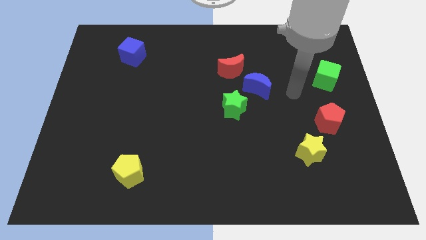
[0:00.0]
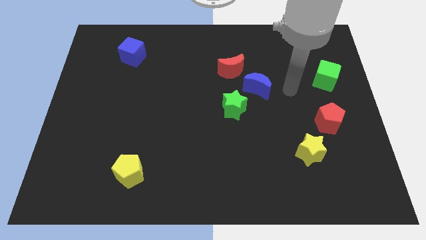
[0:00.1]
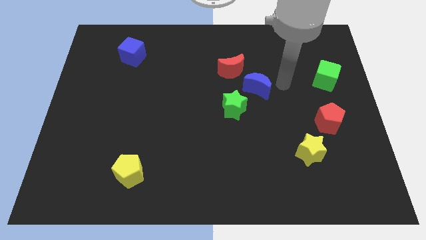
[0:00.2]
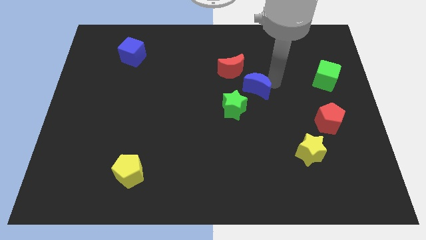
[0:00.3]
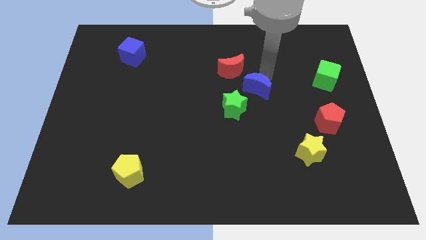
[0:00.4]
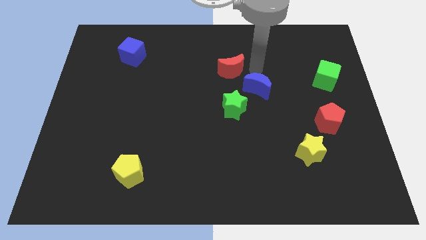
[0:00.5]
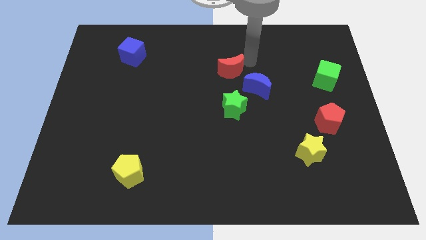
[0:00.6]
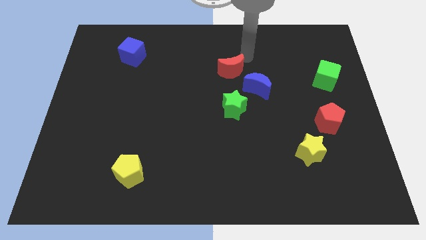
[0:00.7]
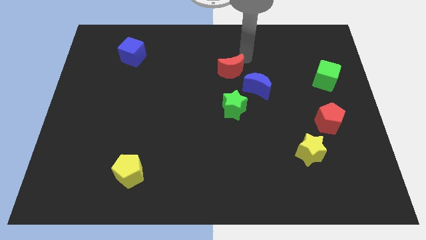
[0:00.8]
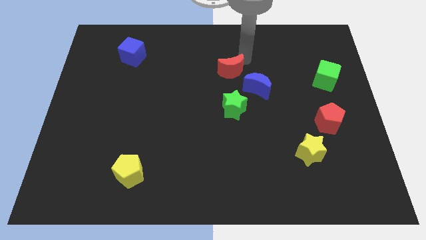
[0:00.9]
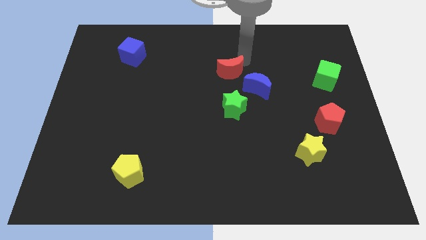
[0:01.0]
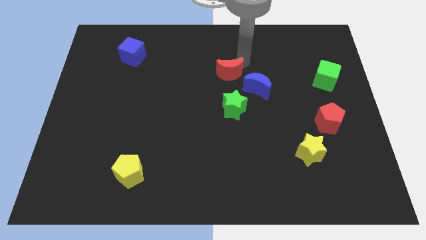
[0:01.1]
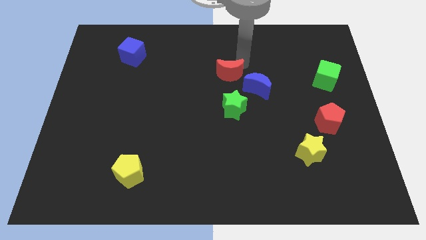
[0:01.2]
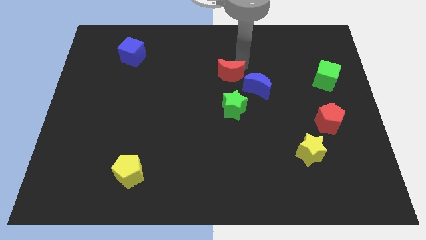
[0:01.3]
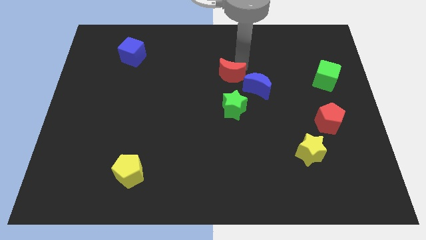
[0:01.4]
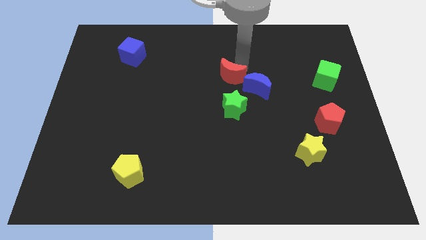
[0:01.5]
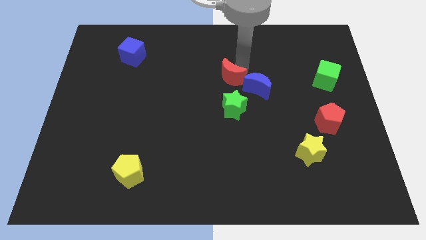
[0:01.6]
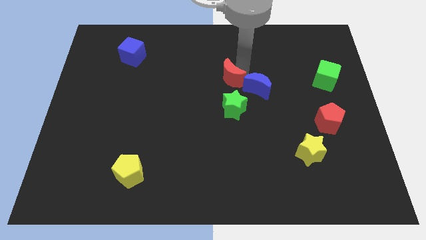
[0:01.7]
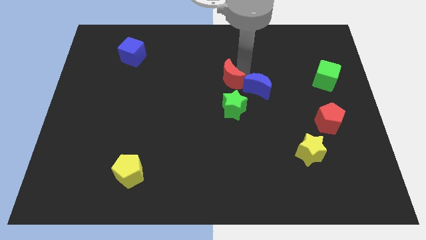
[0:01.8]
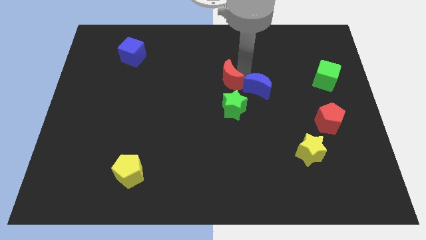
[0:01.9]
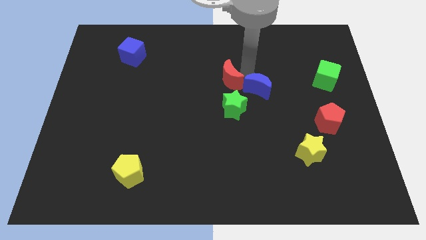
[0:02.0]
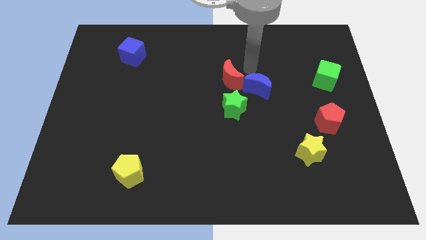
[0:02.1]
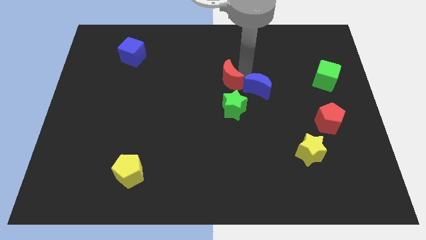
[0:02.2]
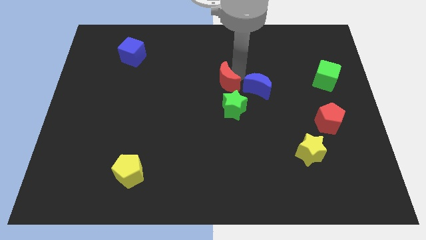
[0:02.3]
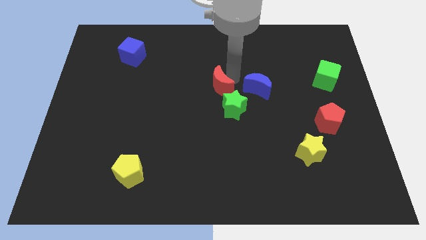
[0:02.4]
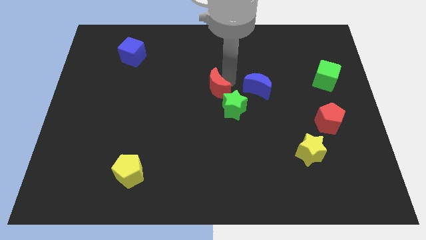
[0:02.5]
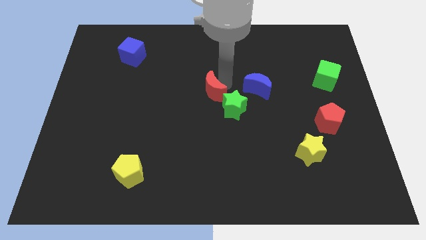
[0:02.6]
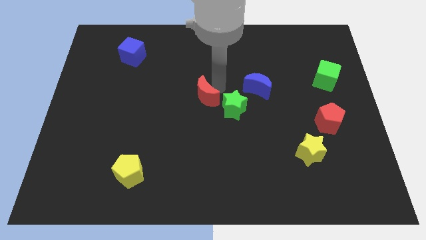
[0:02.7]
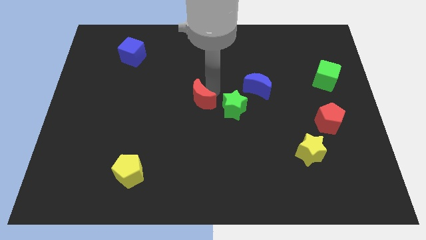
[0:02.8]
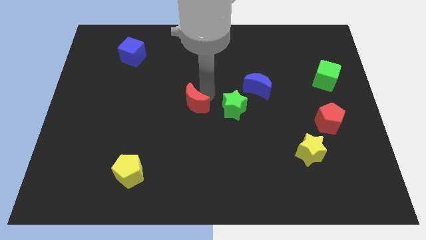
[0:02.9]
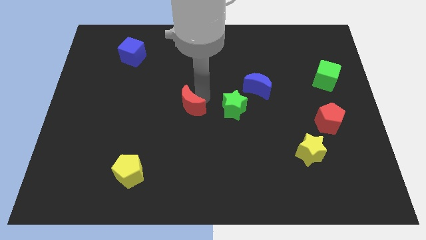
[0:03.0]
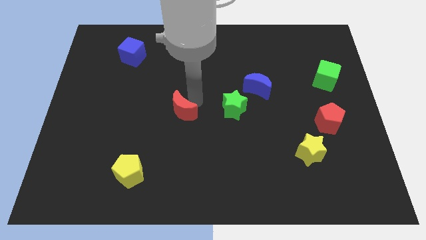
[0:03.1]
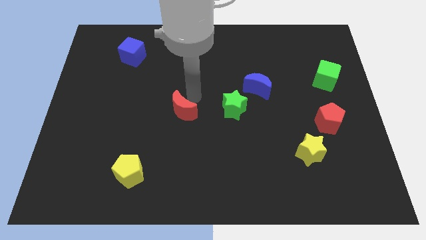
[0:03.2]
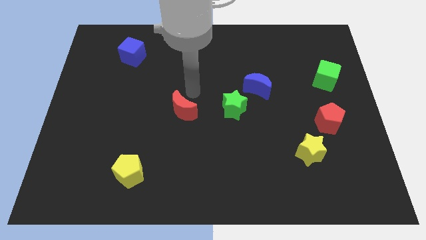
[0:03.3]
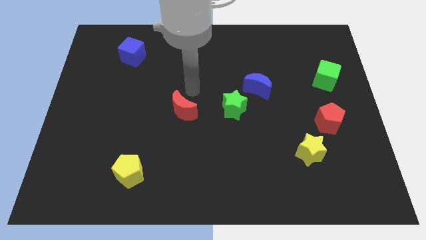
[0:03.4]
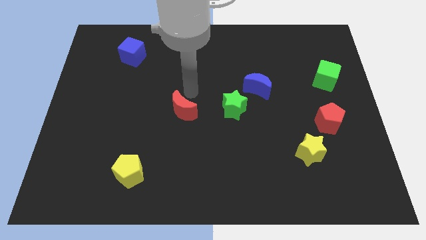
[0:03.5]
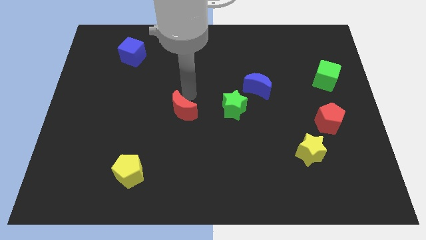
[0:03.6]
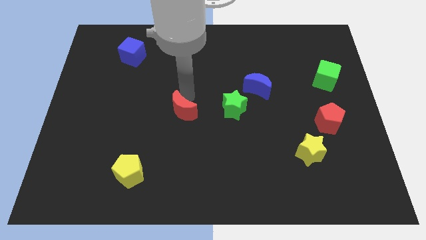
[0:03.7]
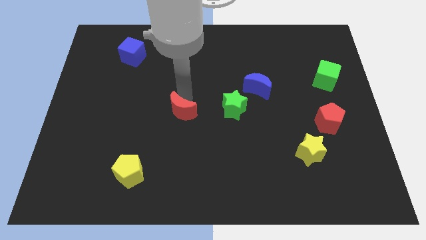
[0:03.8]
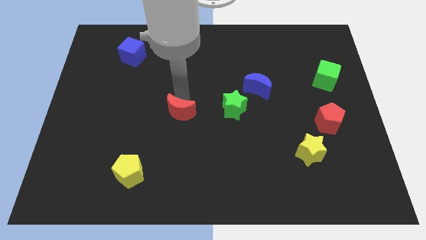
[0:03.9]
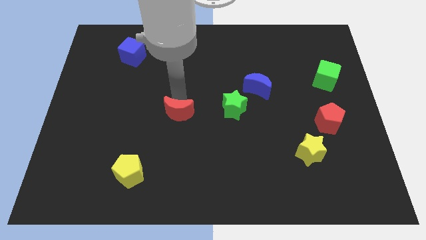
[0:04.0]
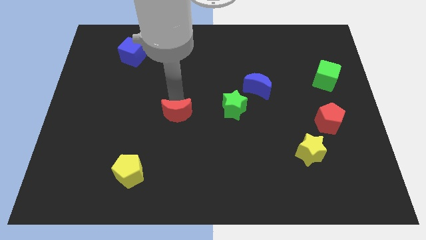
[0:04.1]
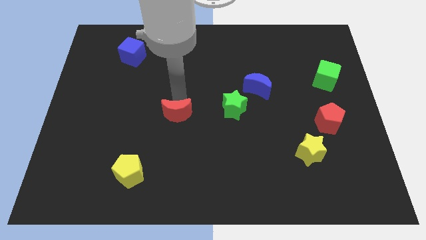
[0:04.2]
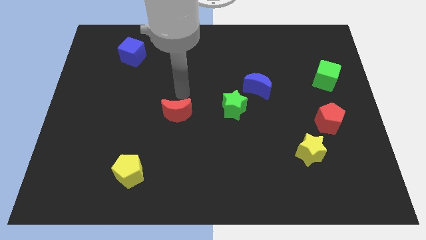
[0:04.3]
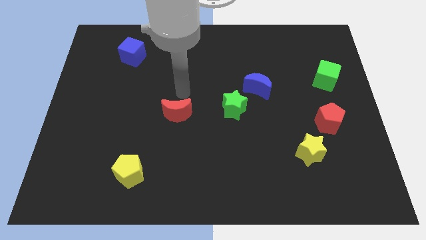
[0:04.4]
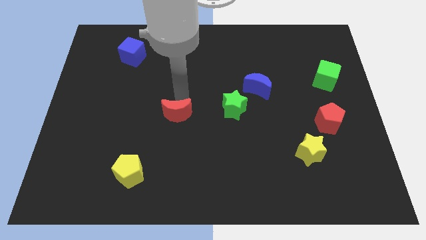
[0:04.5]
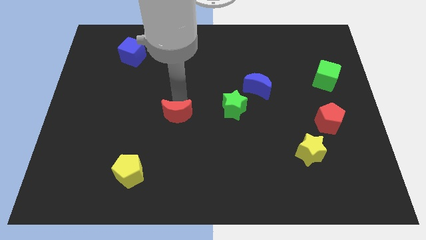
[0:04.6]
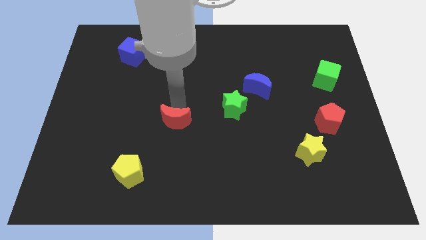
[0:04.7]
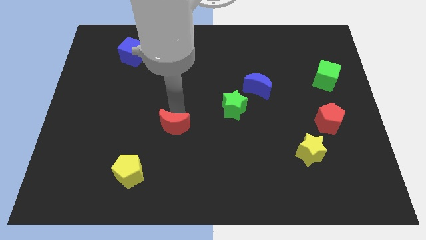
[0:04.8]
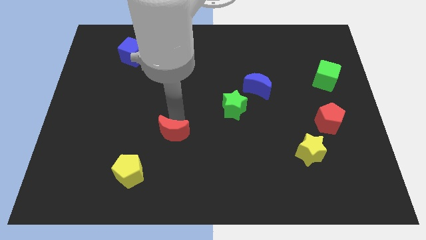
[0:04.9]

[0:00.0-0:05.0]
move the red moon diagonally up and to the right of the yellow pentagon

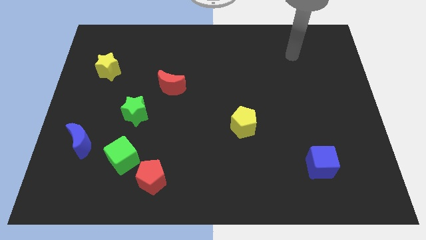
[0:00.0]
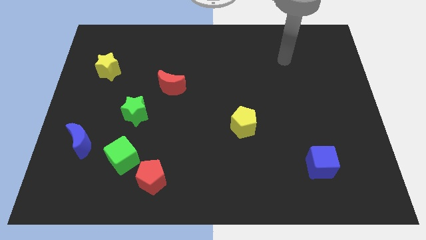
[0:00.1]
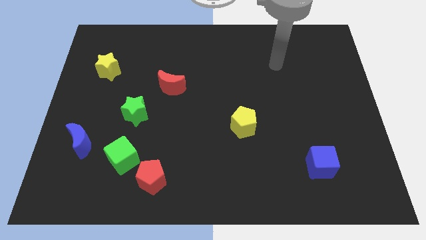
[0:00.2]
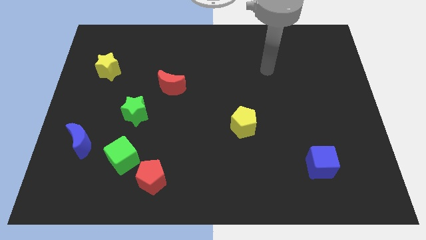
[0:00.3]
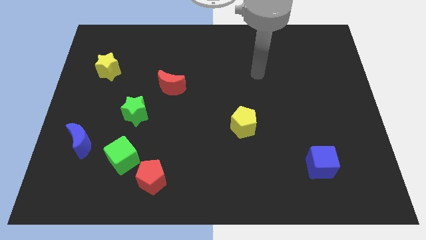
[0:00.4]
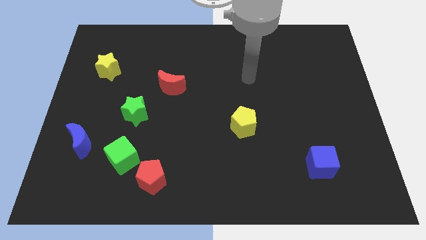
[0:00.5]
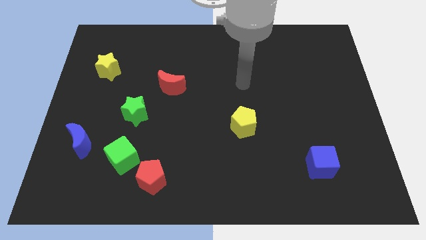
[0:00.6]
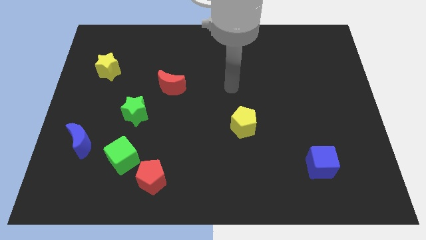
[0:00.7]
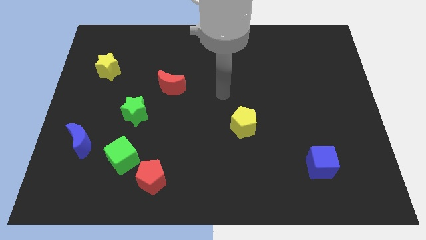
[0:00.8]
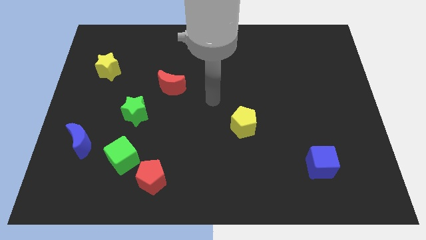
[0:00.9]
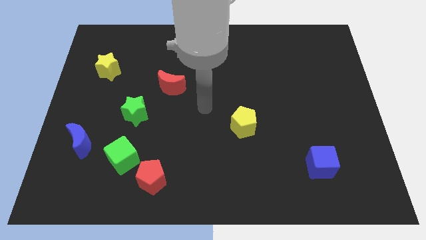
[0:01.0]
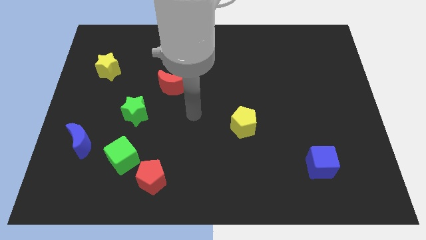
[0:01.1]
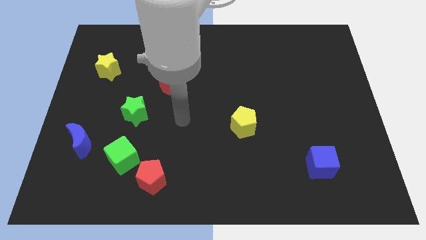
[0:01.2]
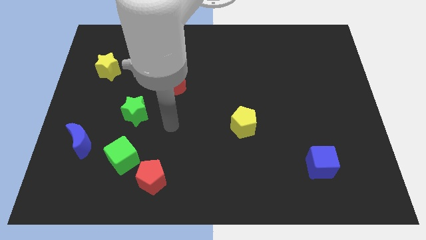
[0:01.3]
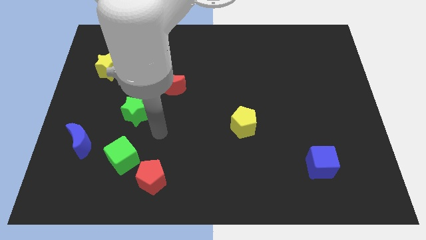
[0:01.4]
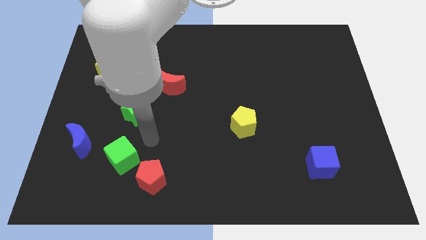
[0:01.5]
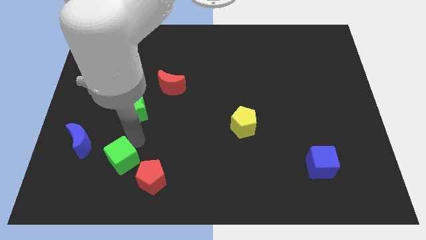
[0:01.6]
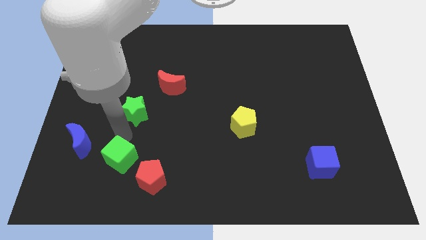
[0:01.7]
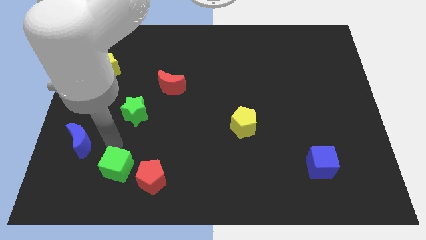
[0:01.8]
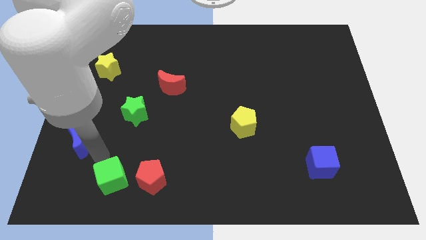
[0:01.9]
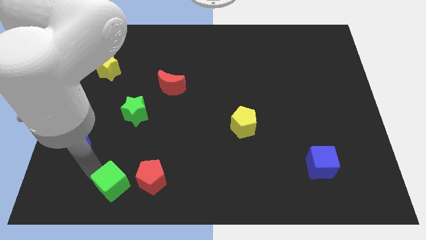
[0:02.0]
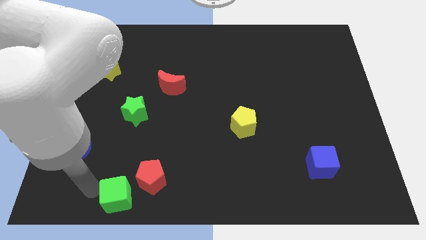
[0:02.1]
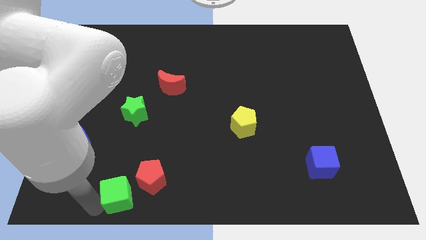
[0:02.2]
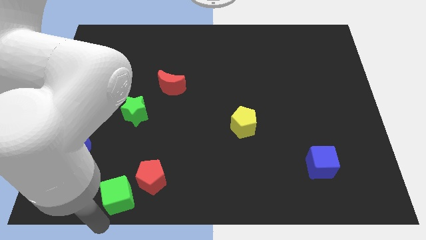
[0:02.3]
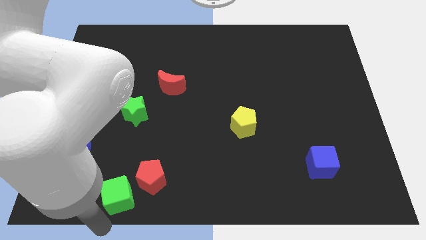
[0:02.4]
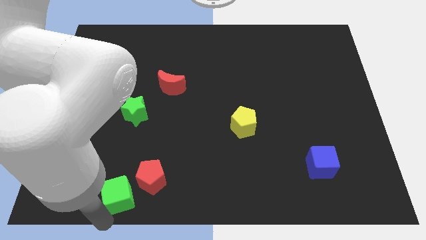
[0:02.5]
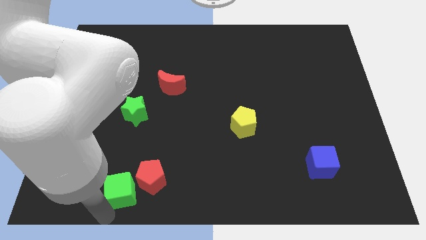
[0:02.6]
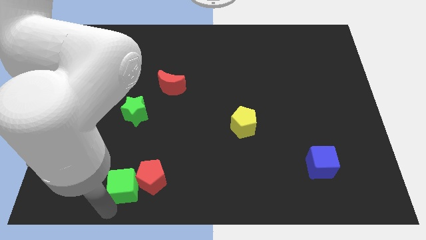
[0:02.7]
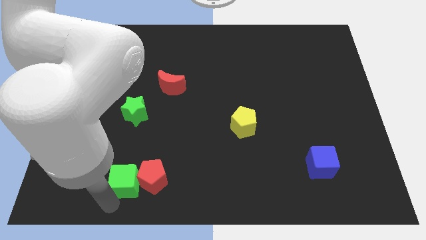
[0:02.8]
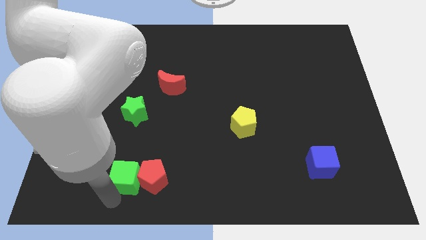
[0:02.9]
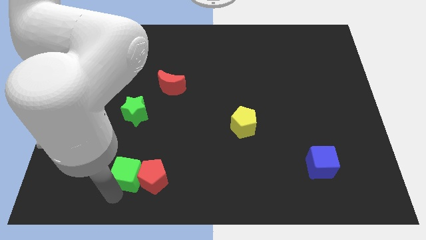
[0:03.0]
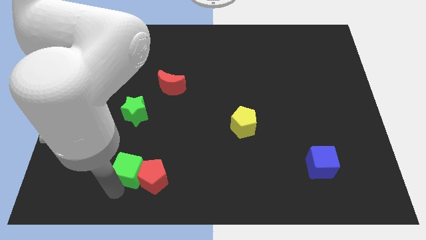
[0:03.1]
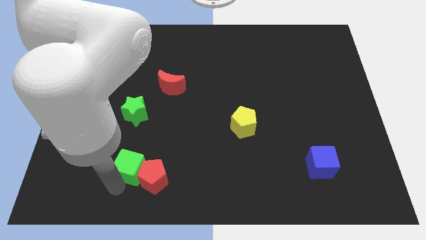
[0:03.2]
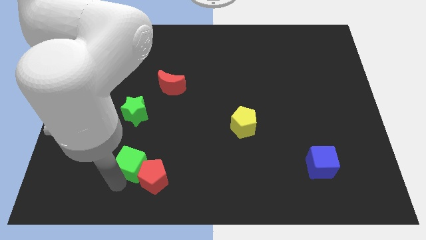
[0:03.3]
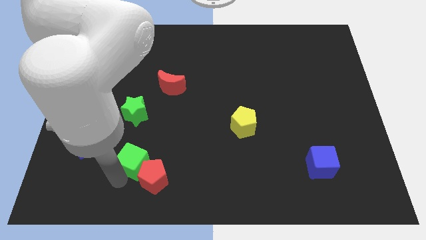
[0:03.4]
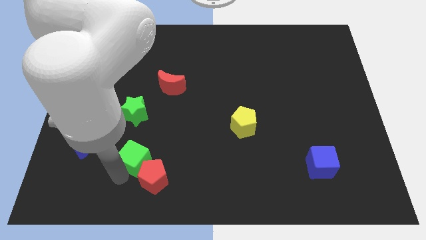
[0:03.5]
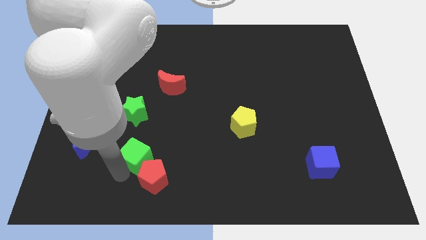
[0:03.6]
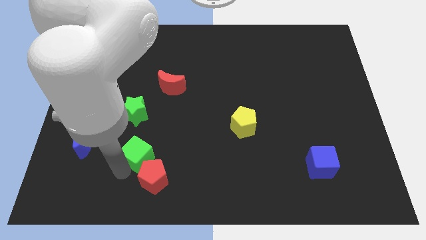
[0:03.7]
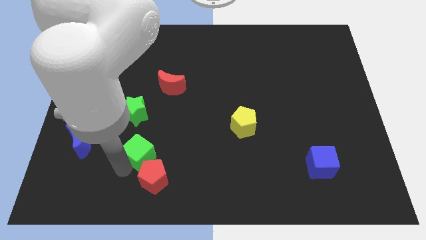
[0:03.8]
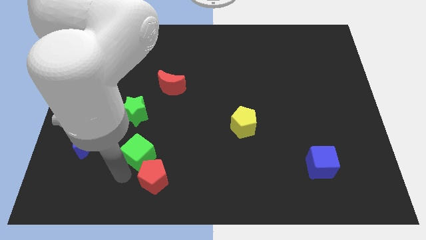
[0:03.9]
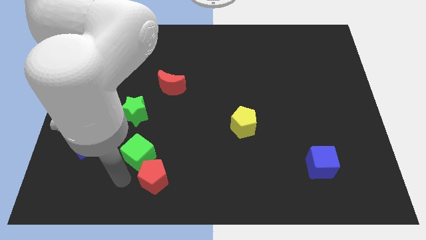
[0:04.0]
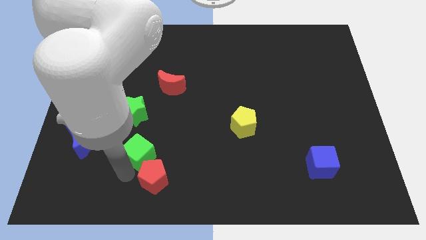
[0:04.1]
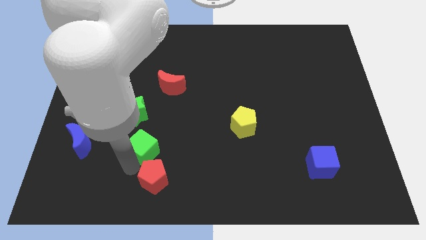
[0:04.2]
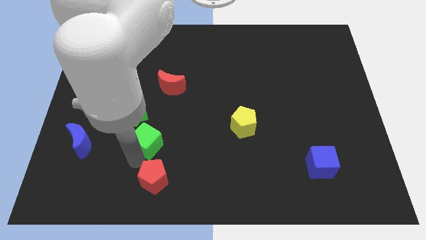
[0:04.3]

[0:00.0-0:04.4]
move the green cube diagonally down and to the right of the green star
